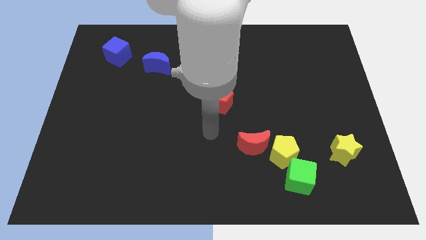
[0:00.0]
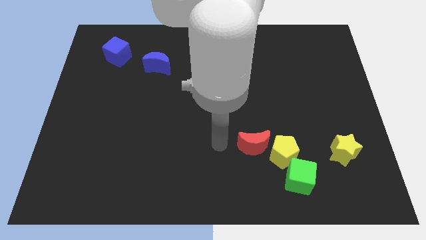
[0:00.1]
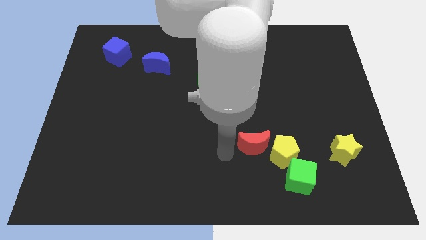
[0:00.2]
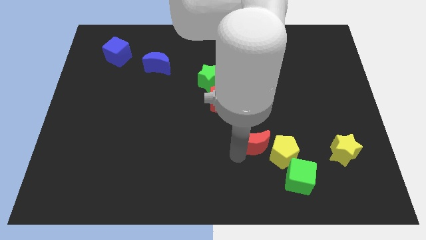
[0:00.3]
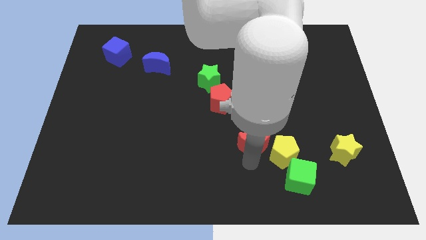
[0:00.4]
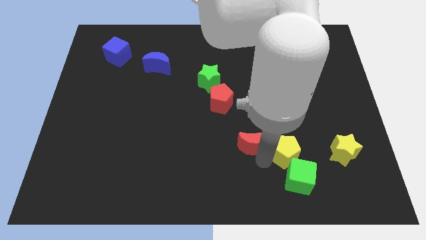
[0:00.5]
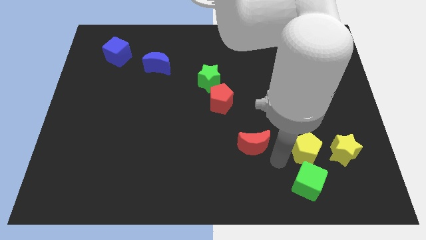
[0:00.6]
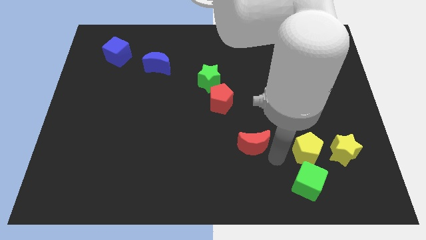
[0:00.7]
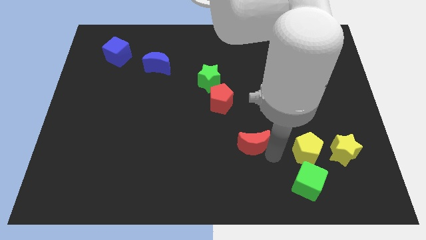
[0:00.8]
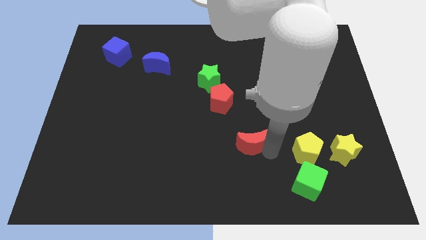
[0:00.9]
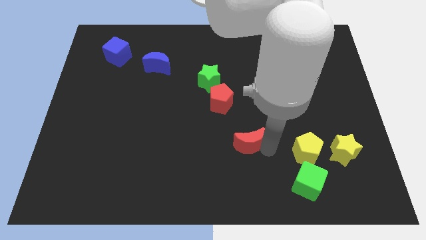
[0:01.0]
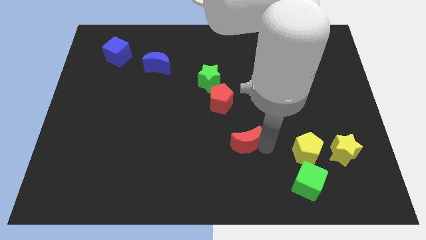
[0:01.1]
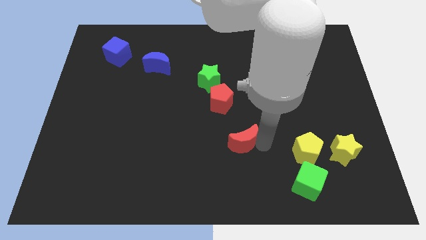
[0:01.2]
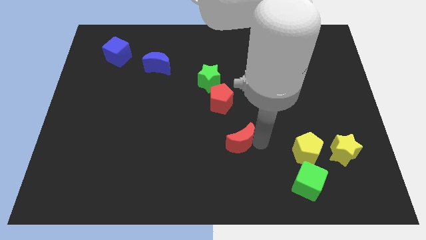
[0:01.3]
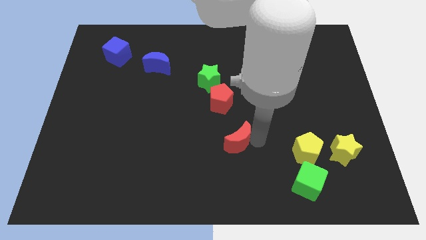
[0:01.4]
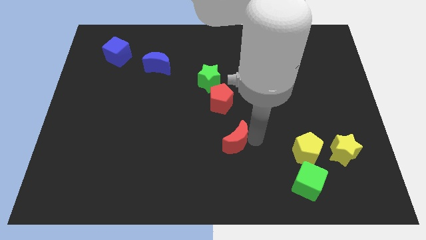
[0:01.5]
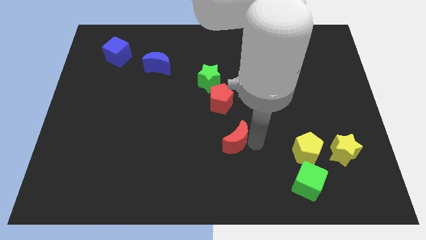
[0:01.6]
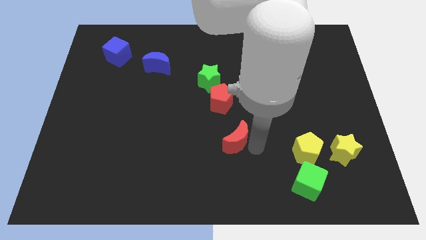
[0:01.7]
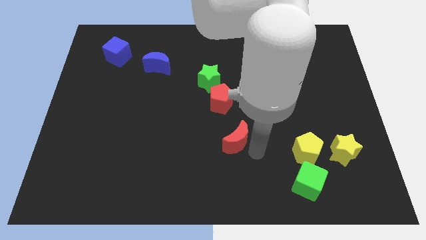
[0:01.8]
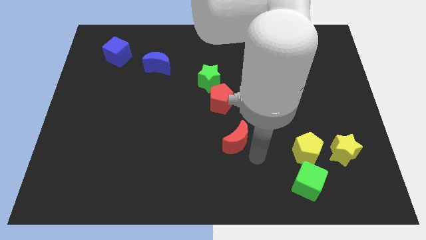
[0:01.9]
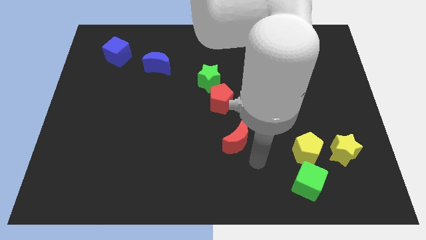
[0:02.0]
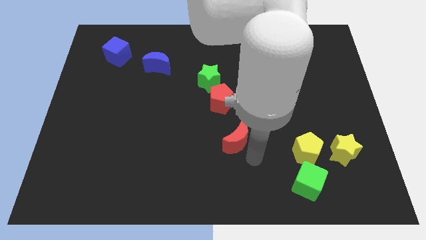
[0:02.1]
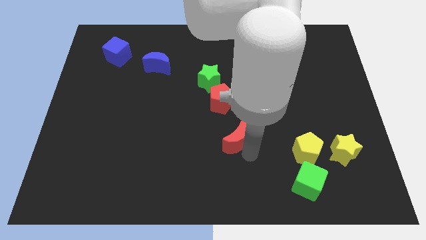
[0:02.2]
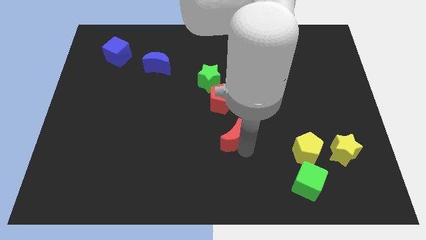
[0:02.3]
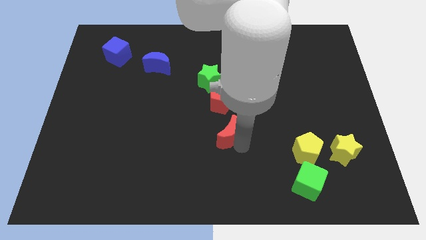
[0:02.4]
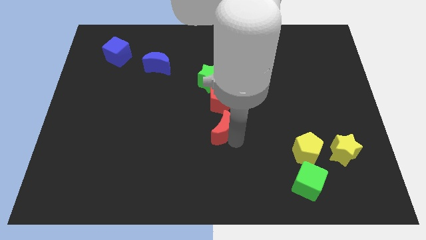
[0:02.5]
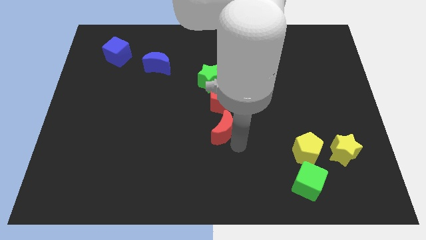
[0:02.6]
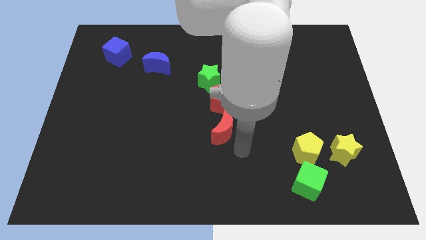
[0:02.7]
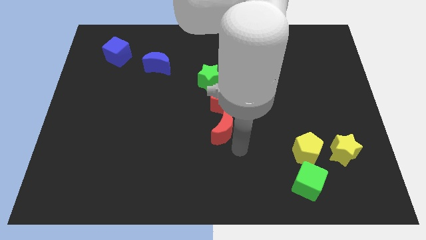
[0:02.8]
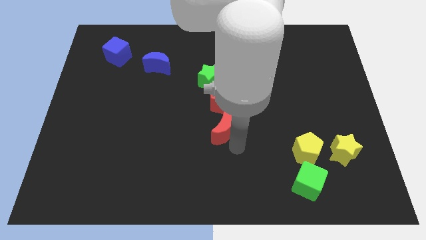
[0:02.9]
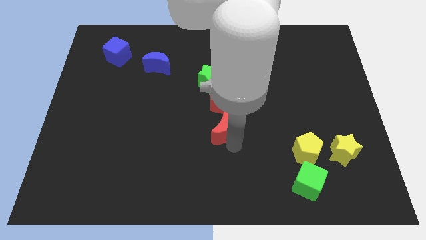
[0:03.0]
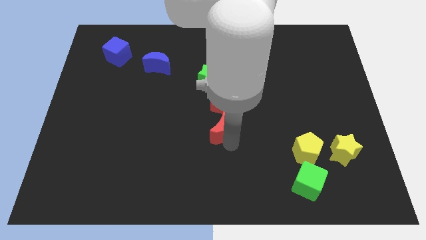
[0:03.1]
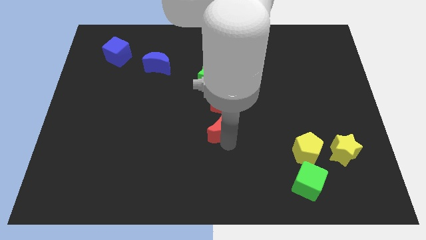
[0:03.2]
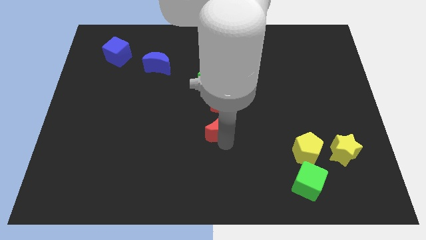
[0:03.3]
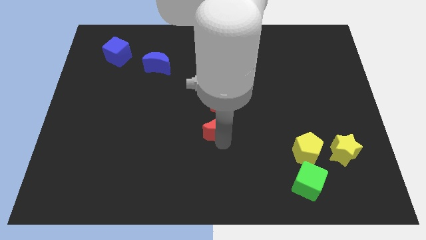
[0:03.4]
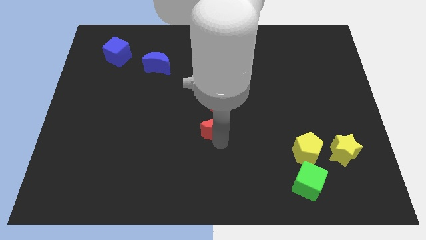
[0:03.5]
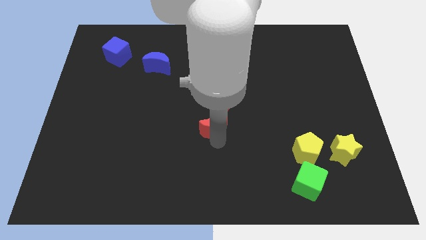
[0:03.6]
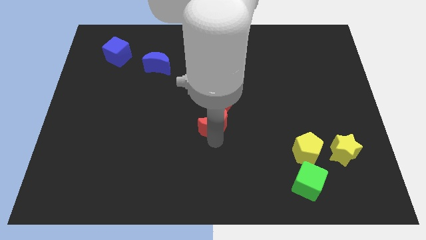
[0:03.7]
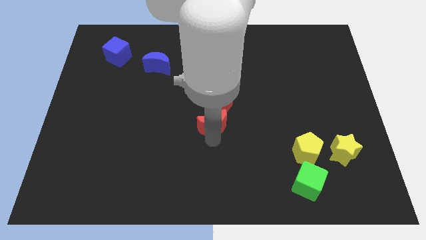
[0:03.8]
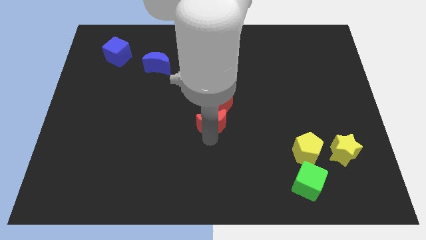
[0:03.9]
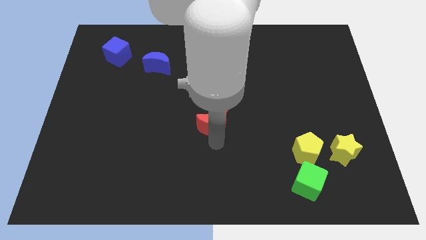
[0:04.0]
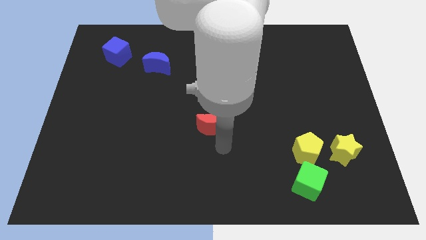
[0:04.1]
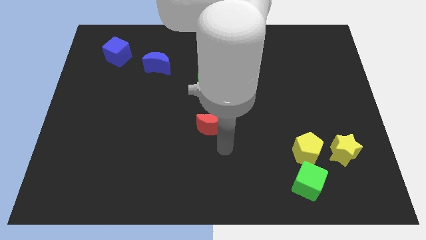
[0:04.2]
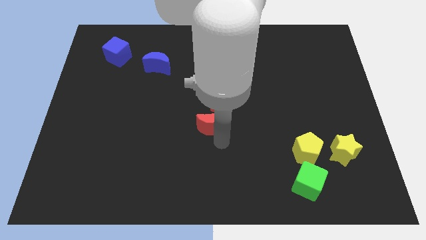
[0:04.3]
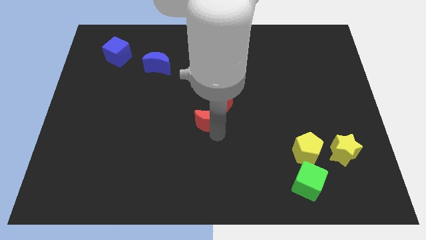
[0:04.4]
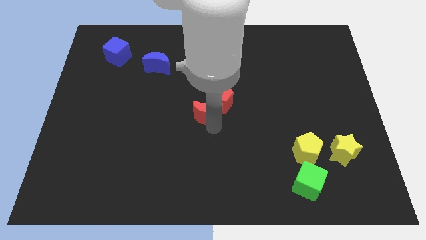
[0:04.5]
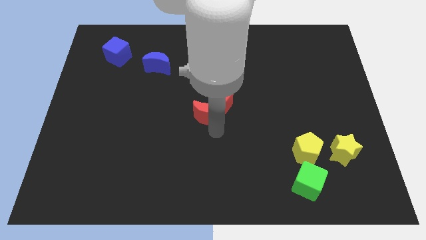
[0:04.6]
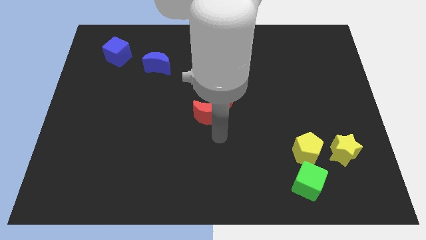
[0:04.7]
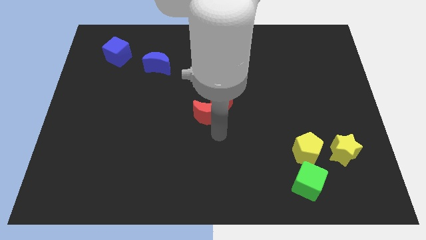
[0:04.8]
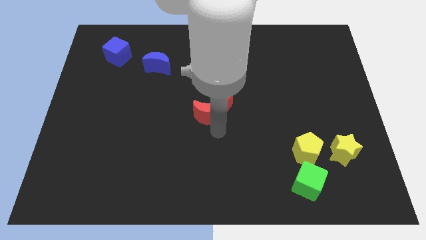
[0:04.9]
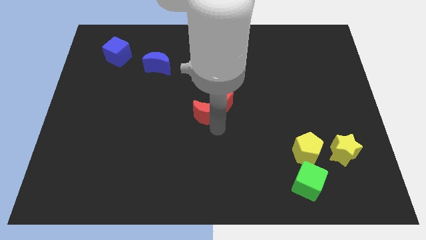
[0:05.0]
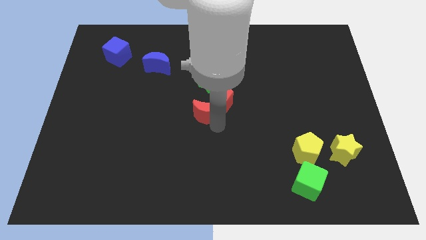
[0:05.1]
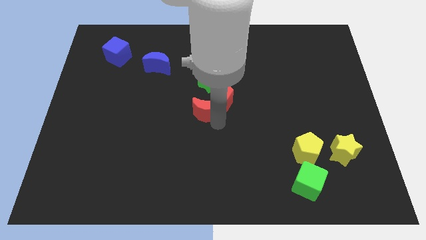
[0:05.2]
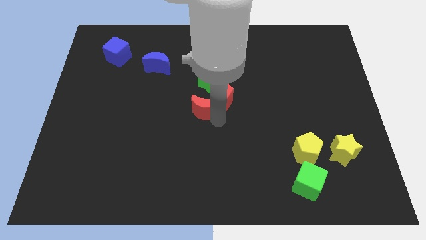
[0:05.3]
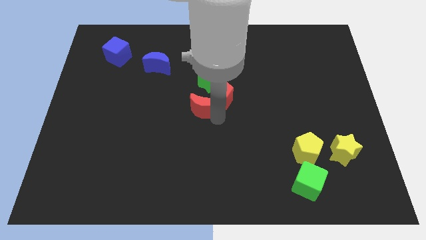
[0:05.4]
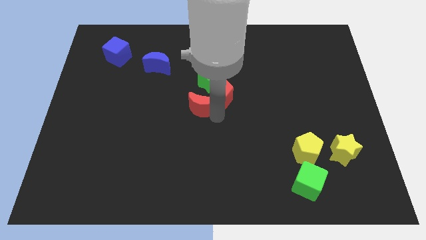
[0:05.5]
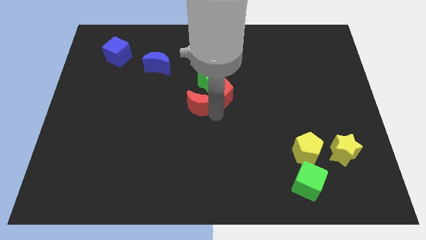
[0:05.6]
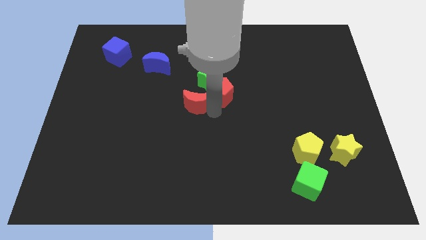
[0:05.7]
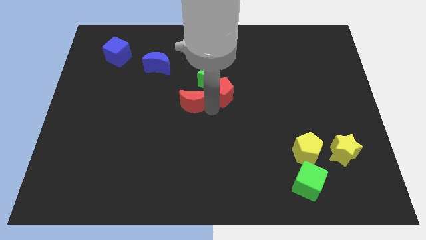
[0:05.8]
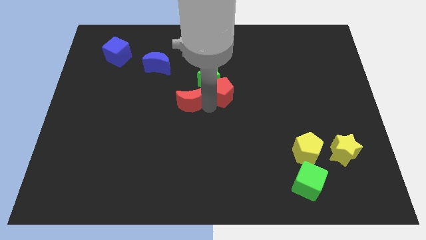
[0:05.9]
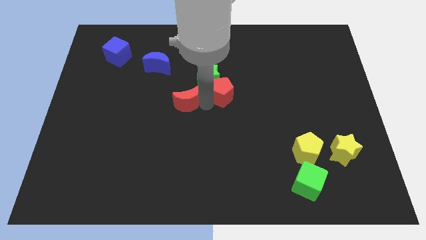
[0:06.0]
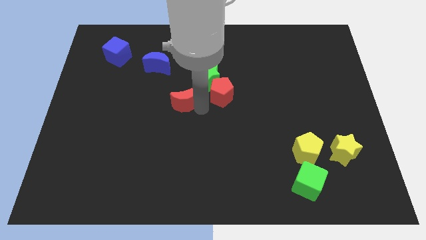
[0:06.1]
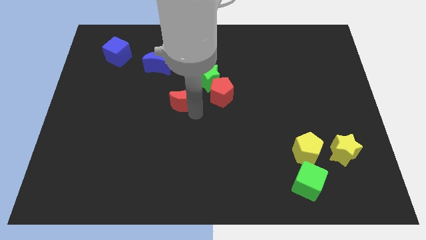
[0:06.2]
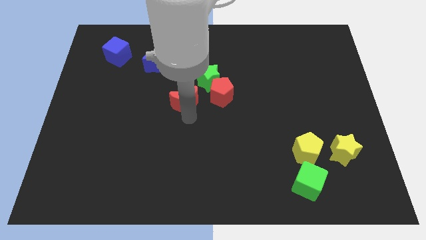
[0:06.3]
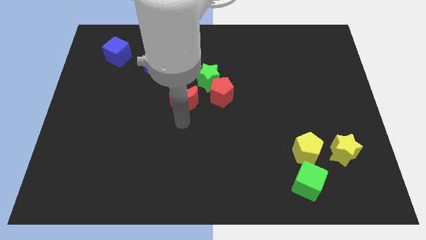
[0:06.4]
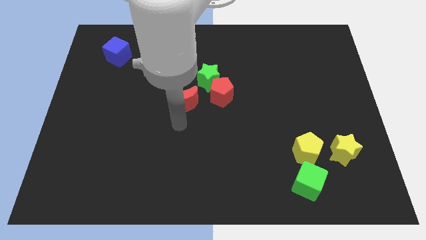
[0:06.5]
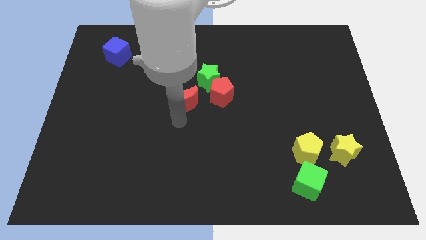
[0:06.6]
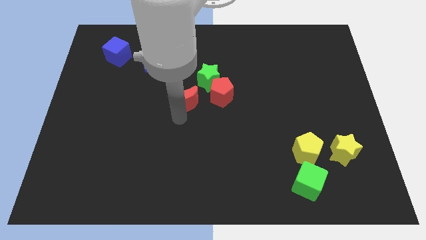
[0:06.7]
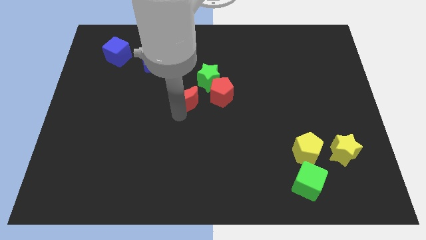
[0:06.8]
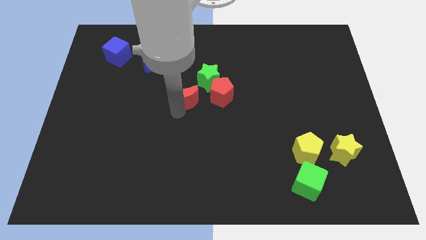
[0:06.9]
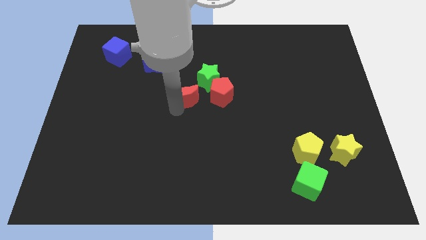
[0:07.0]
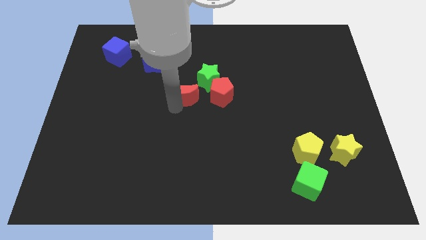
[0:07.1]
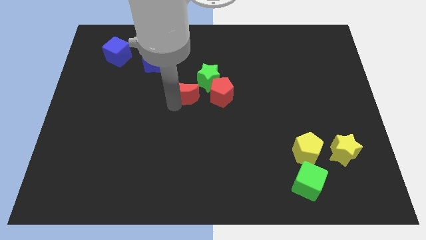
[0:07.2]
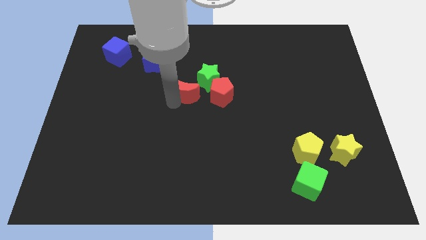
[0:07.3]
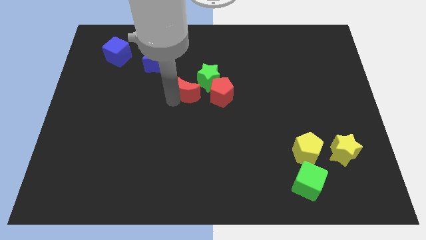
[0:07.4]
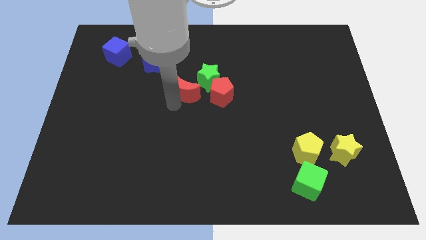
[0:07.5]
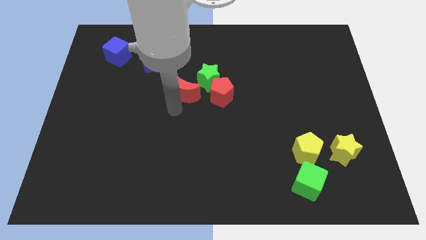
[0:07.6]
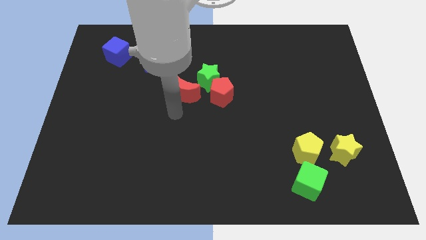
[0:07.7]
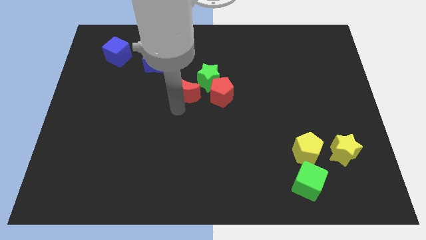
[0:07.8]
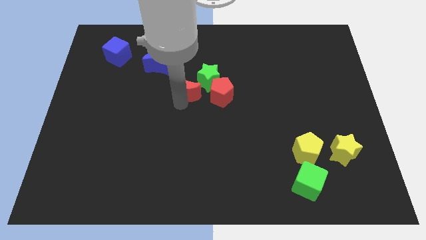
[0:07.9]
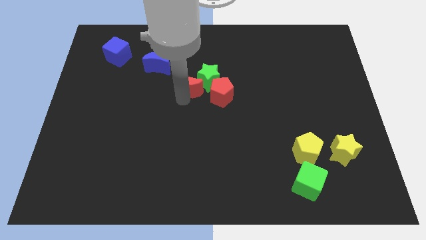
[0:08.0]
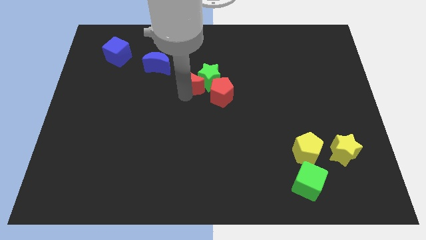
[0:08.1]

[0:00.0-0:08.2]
slide the red moon to the top left of the green star
